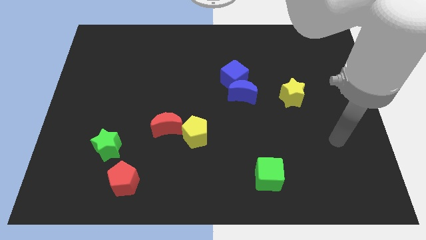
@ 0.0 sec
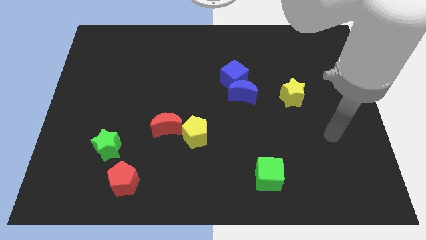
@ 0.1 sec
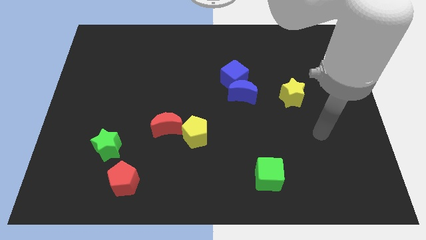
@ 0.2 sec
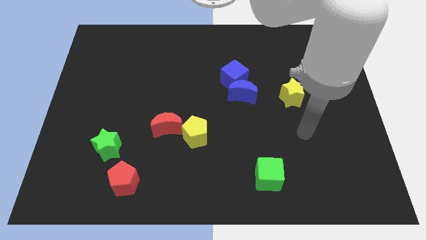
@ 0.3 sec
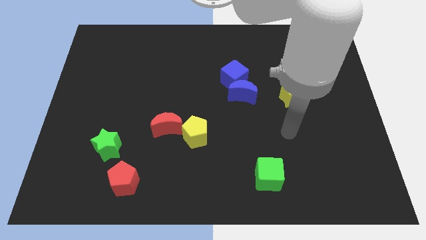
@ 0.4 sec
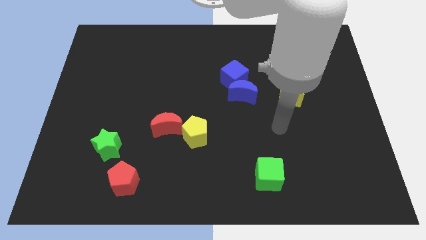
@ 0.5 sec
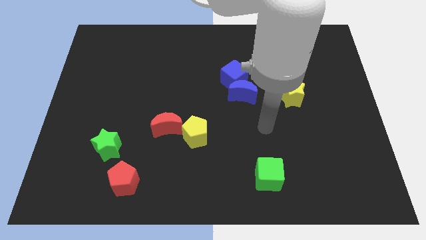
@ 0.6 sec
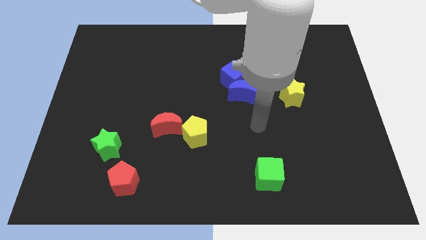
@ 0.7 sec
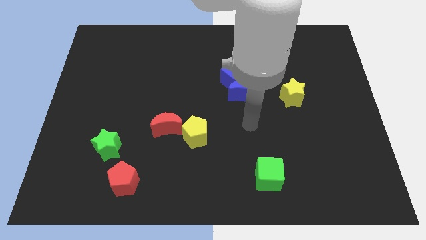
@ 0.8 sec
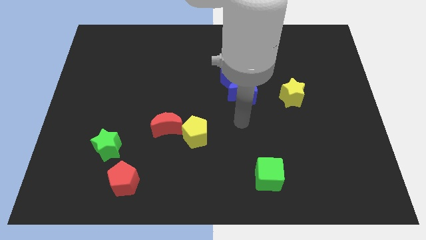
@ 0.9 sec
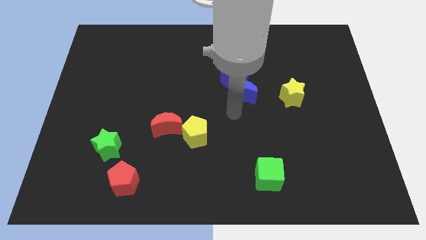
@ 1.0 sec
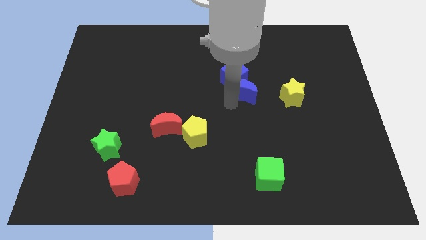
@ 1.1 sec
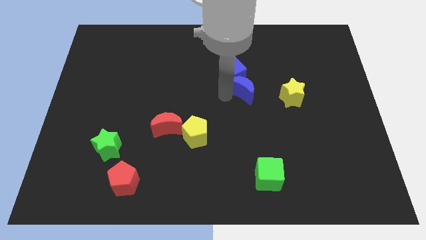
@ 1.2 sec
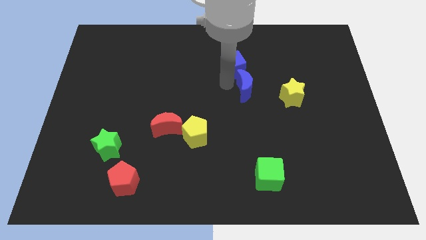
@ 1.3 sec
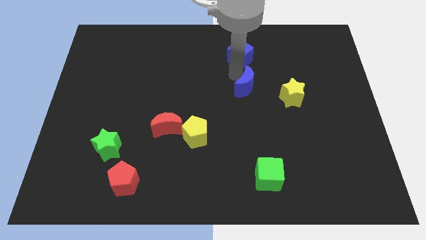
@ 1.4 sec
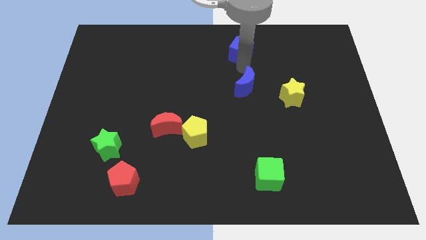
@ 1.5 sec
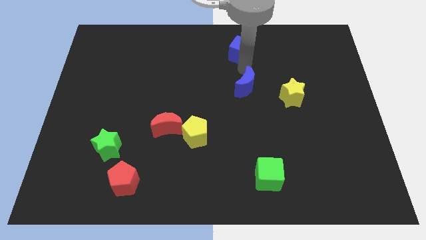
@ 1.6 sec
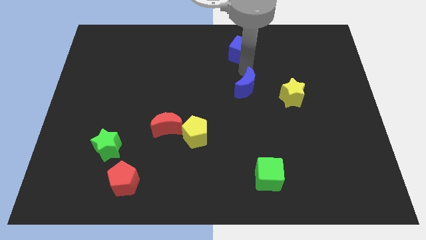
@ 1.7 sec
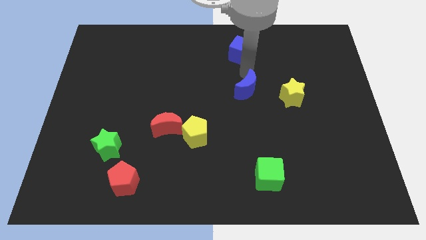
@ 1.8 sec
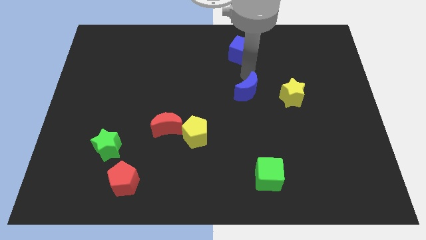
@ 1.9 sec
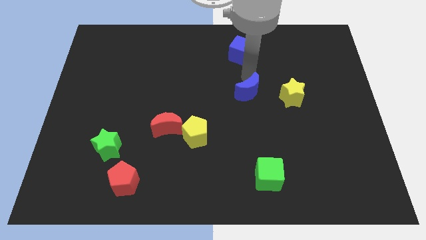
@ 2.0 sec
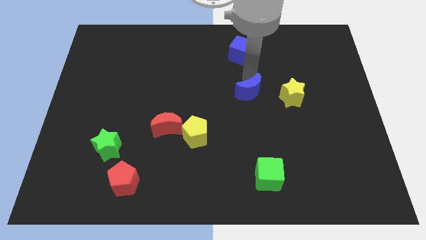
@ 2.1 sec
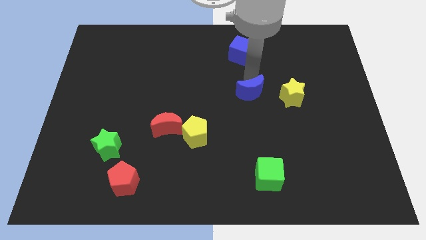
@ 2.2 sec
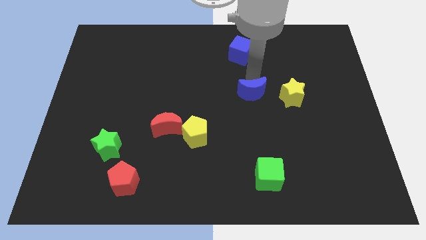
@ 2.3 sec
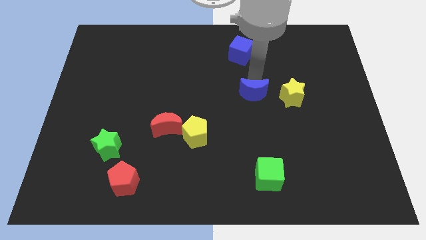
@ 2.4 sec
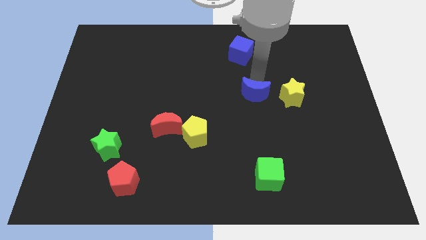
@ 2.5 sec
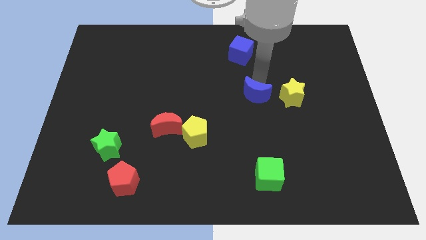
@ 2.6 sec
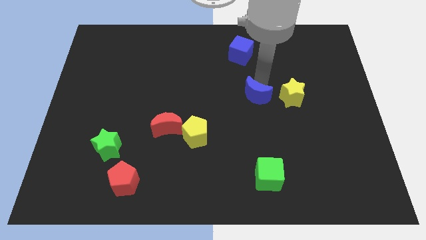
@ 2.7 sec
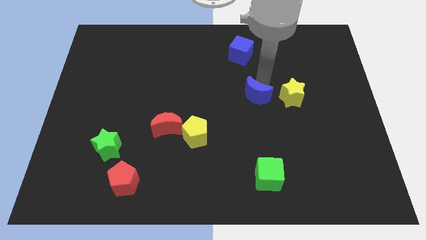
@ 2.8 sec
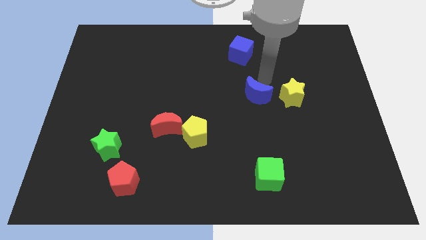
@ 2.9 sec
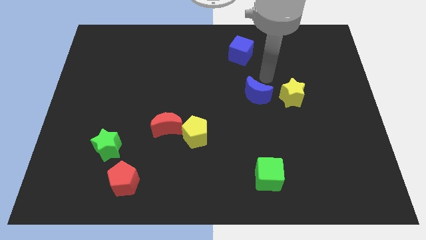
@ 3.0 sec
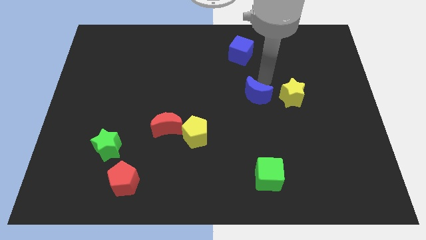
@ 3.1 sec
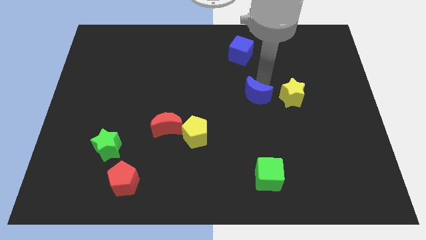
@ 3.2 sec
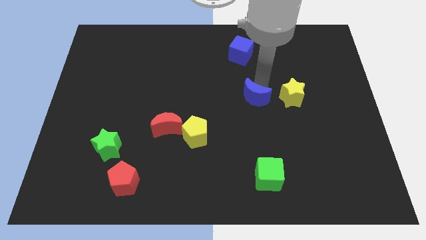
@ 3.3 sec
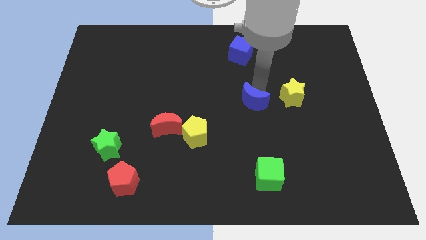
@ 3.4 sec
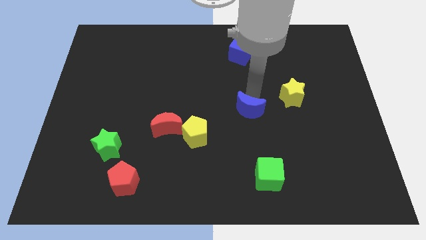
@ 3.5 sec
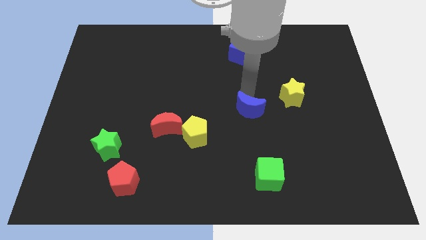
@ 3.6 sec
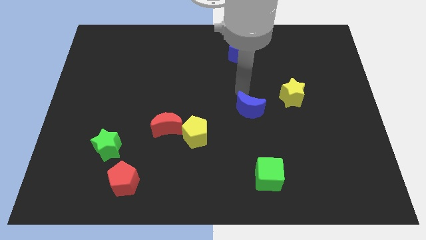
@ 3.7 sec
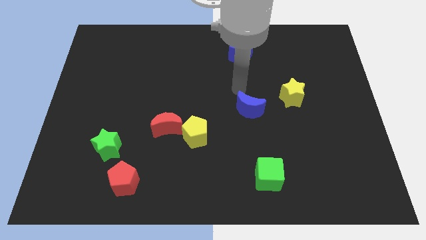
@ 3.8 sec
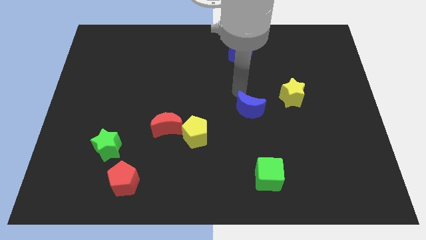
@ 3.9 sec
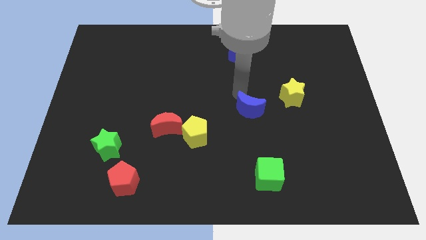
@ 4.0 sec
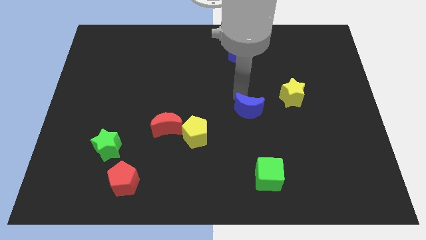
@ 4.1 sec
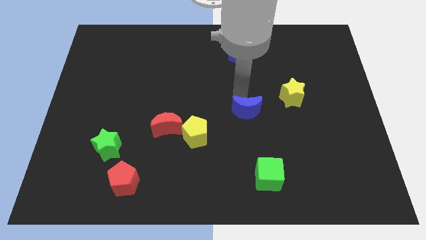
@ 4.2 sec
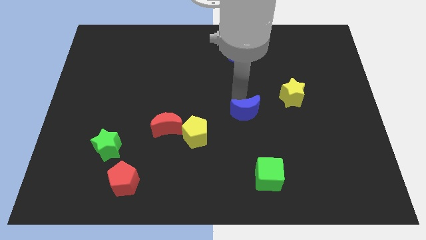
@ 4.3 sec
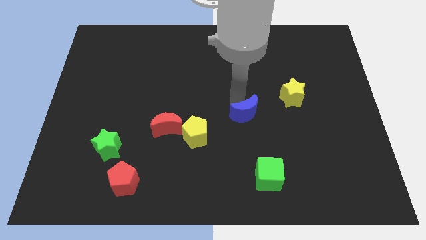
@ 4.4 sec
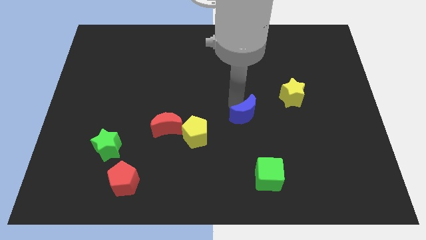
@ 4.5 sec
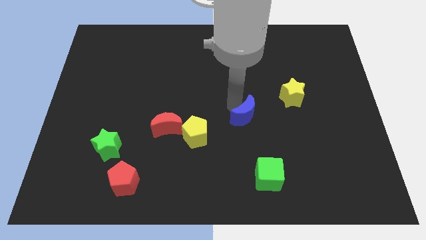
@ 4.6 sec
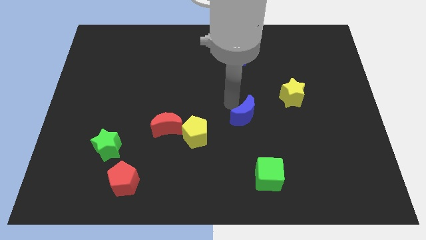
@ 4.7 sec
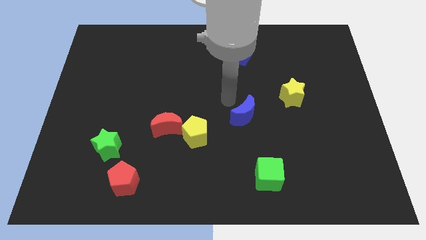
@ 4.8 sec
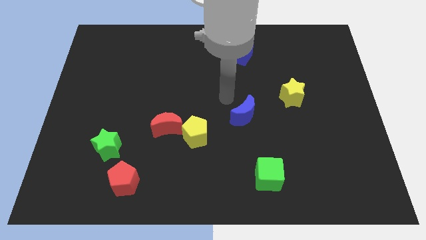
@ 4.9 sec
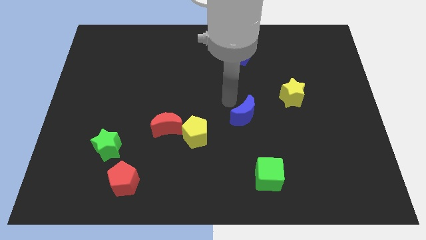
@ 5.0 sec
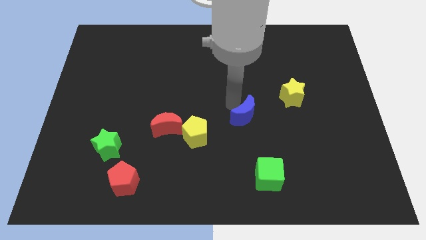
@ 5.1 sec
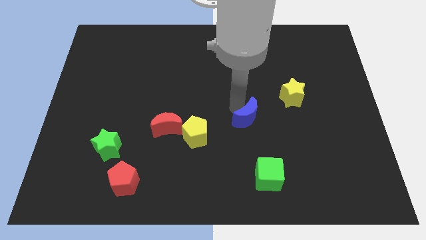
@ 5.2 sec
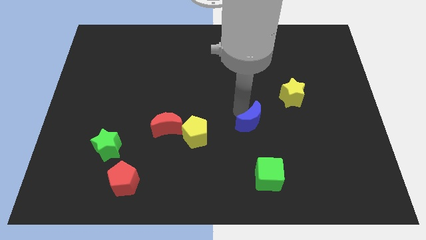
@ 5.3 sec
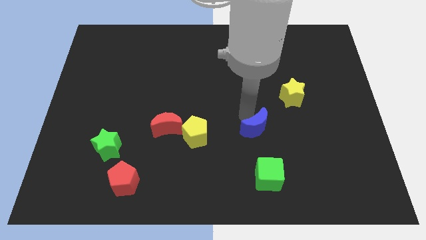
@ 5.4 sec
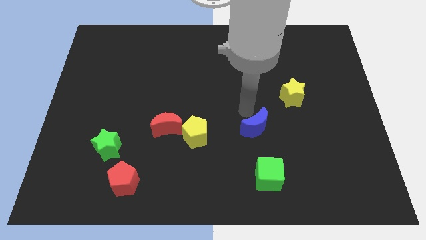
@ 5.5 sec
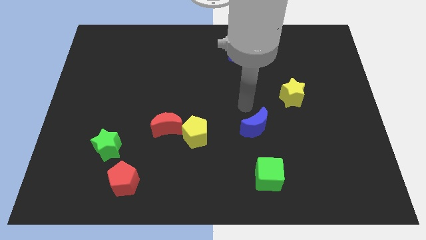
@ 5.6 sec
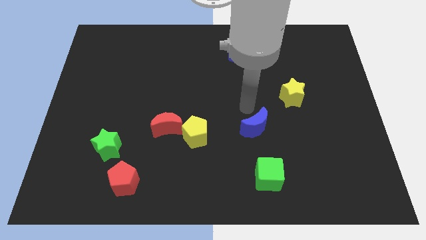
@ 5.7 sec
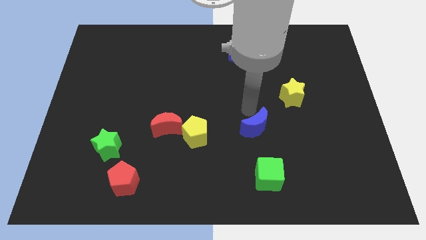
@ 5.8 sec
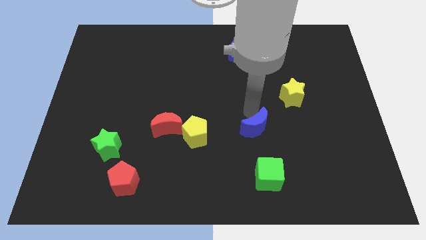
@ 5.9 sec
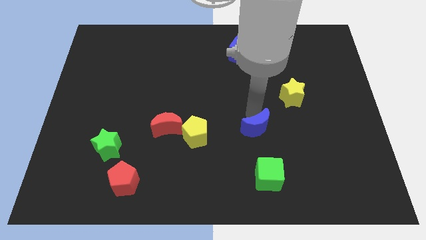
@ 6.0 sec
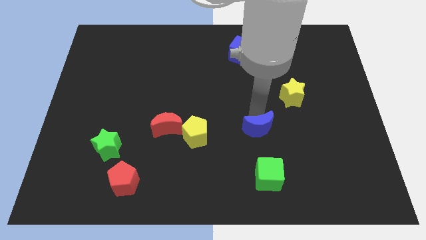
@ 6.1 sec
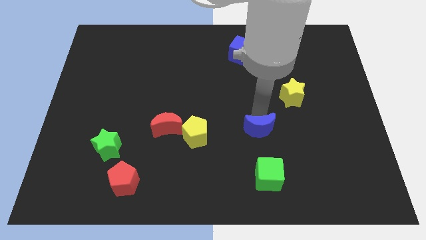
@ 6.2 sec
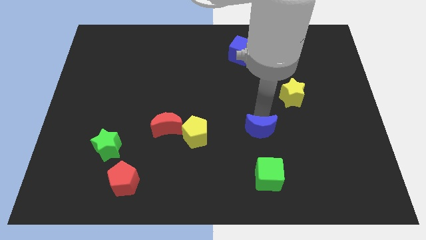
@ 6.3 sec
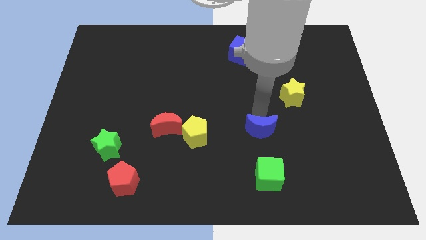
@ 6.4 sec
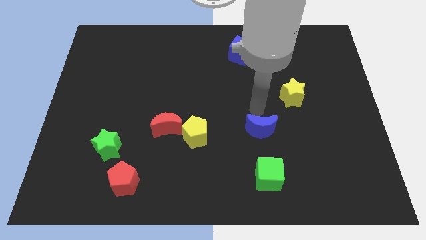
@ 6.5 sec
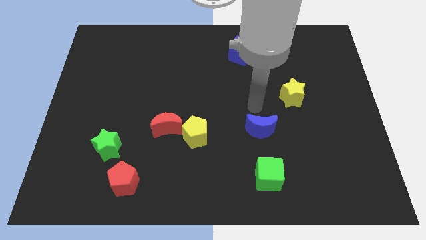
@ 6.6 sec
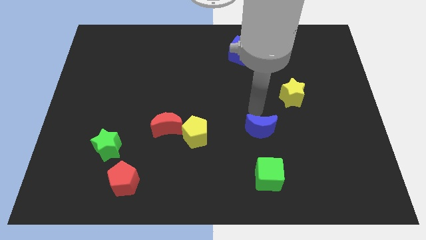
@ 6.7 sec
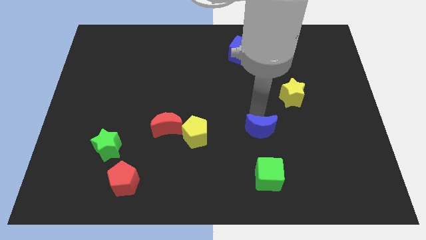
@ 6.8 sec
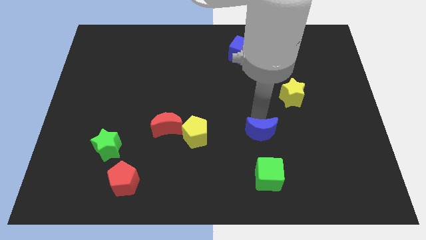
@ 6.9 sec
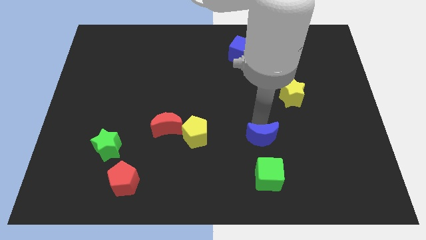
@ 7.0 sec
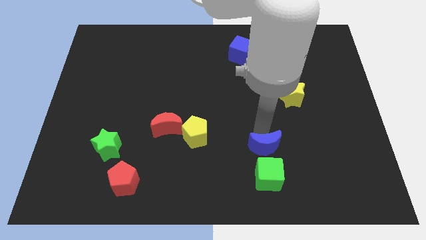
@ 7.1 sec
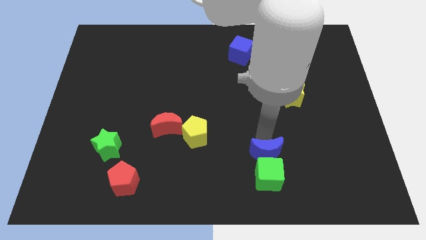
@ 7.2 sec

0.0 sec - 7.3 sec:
put the blue moon towards the green cube

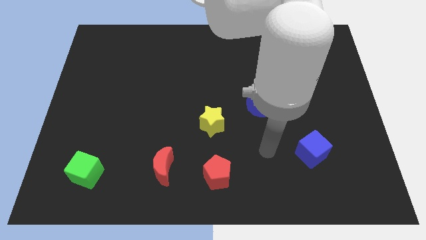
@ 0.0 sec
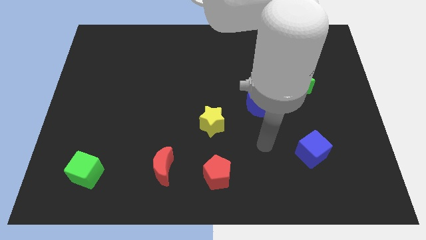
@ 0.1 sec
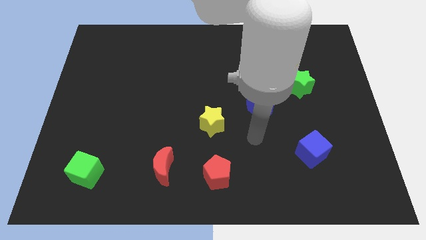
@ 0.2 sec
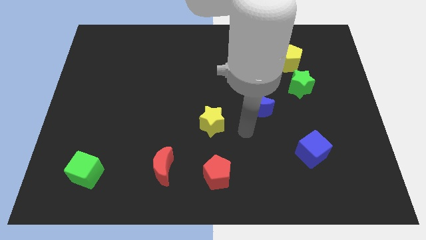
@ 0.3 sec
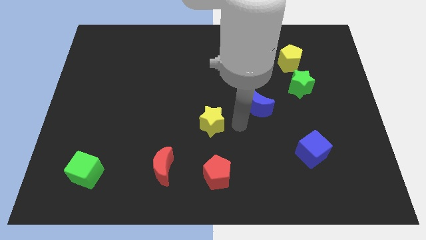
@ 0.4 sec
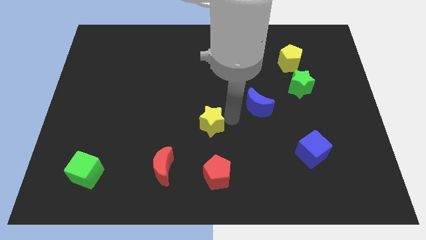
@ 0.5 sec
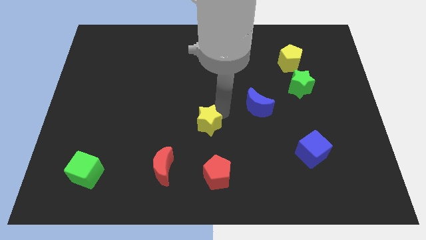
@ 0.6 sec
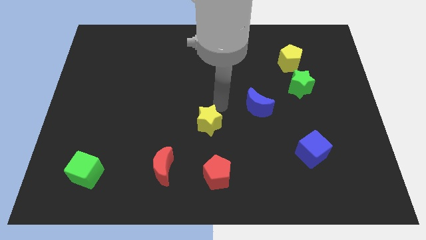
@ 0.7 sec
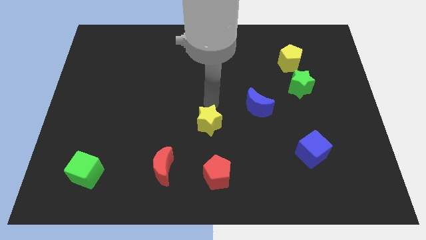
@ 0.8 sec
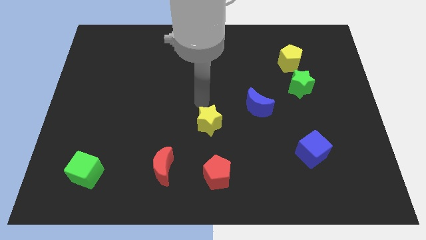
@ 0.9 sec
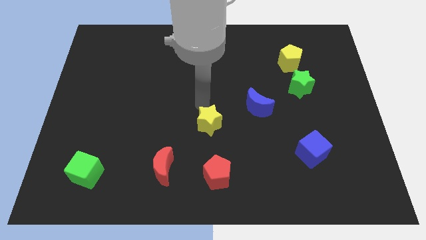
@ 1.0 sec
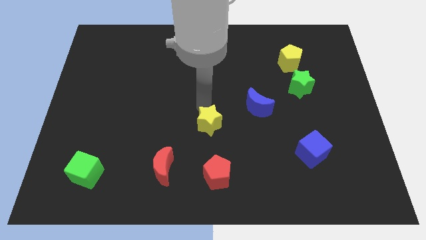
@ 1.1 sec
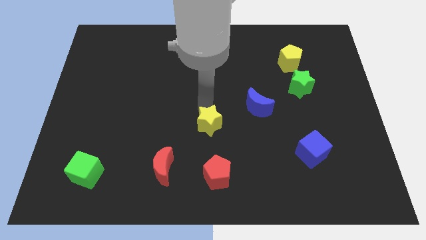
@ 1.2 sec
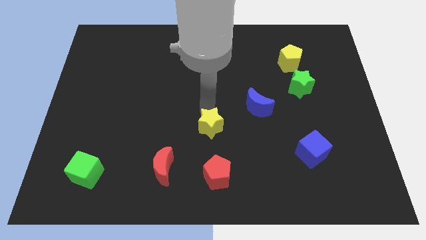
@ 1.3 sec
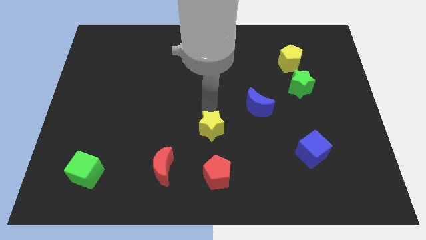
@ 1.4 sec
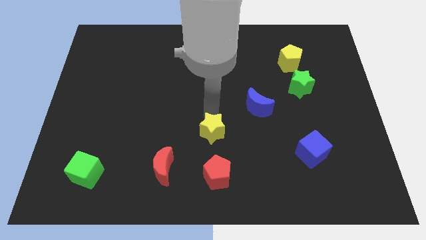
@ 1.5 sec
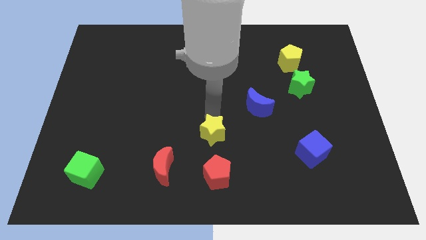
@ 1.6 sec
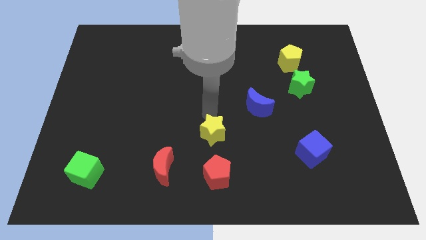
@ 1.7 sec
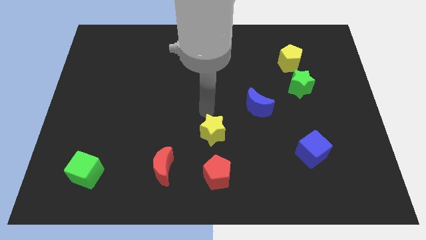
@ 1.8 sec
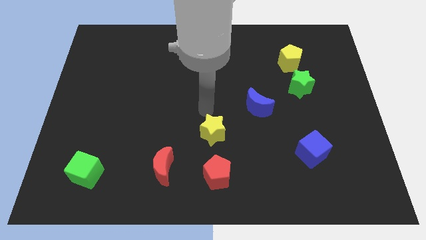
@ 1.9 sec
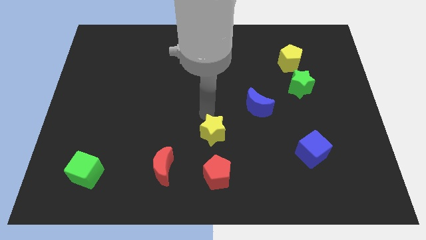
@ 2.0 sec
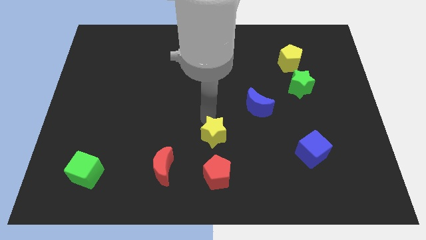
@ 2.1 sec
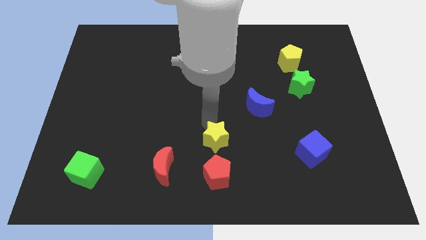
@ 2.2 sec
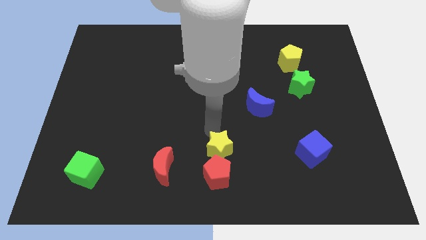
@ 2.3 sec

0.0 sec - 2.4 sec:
move the yellow star towards the red pentagon
